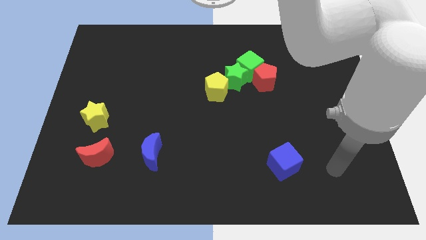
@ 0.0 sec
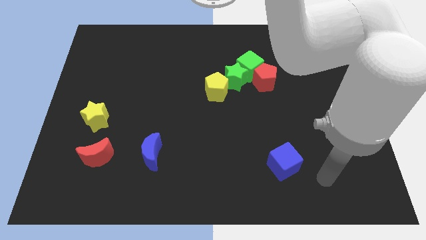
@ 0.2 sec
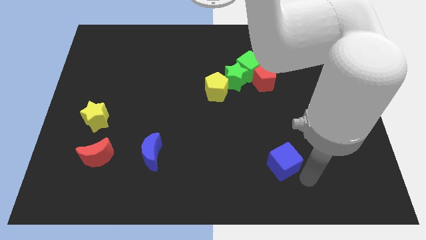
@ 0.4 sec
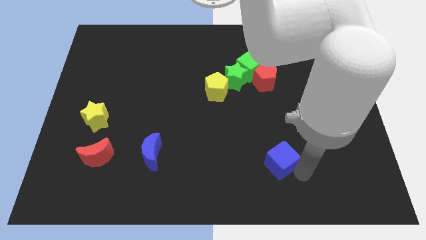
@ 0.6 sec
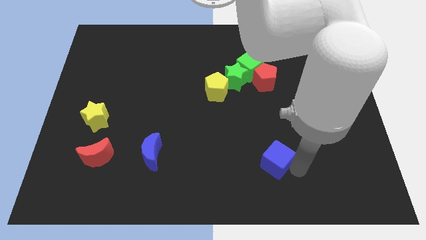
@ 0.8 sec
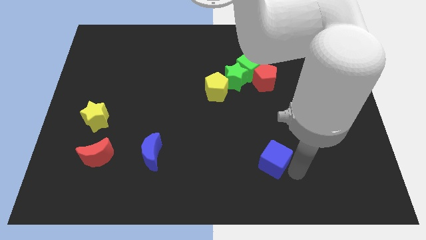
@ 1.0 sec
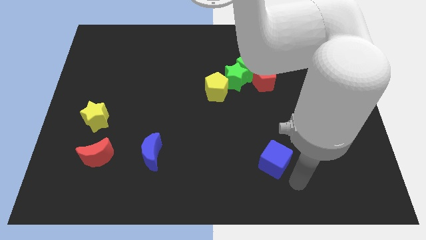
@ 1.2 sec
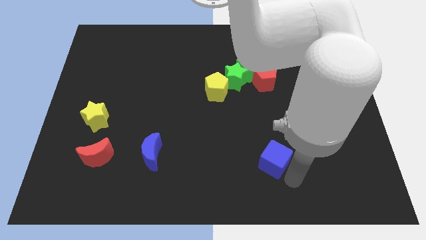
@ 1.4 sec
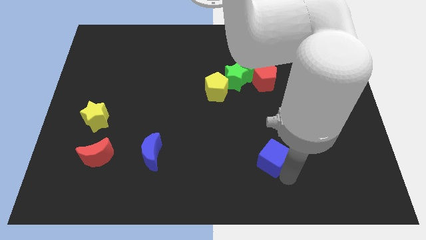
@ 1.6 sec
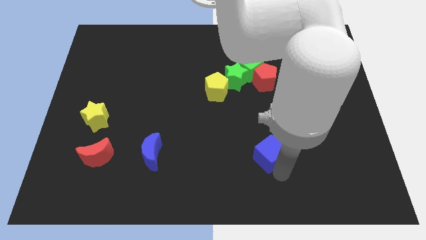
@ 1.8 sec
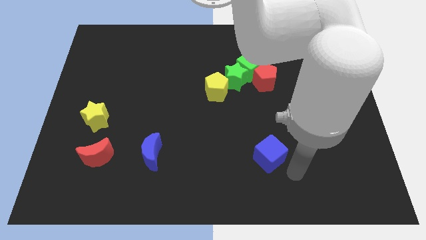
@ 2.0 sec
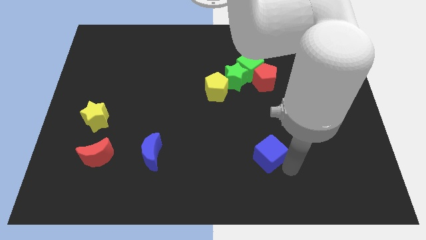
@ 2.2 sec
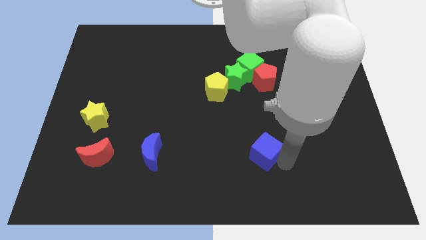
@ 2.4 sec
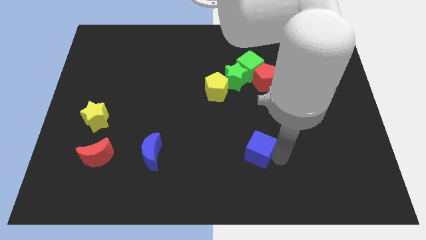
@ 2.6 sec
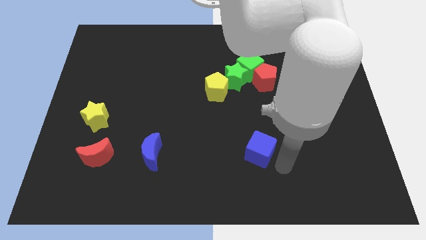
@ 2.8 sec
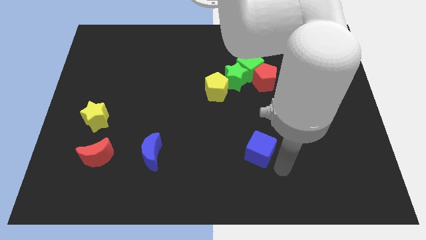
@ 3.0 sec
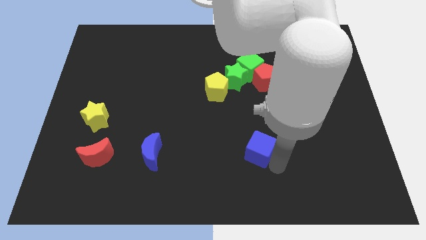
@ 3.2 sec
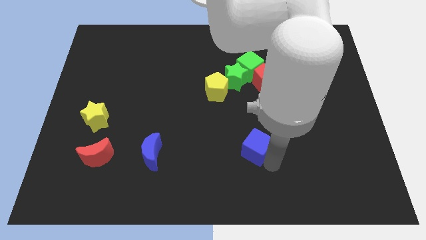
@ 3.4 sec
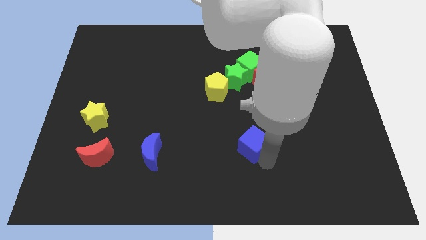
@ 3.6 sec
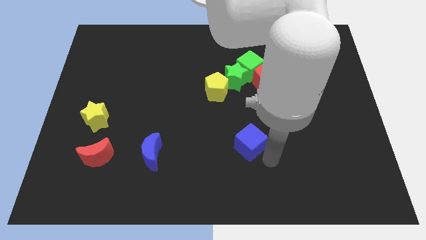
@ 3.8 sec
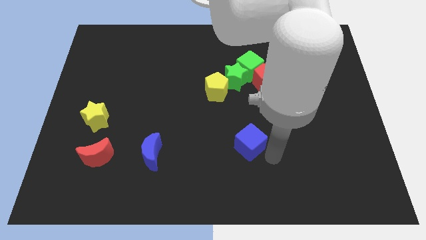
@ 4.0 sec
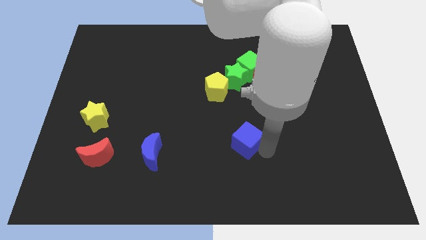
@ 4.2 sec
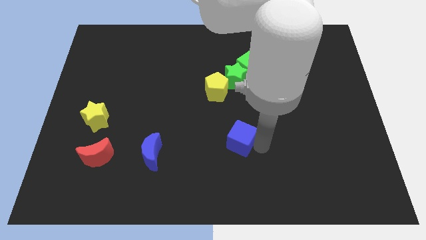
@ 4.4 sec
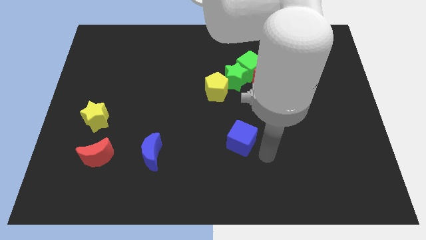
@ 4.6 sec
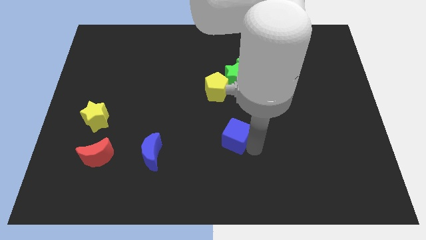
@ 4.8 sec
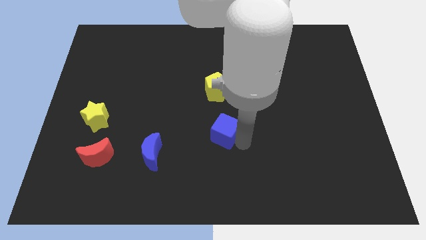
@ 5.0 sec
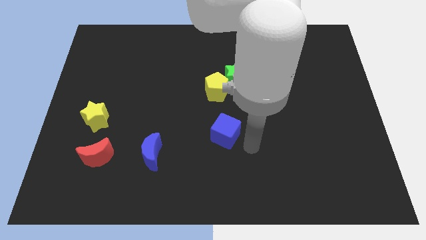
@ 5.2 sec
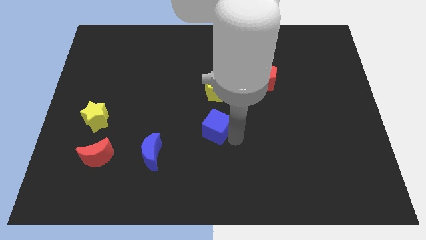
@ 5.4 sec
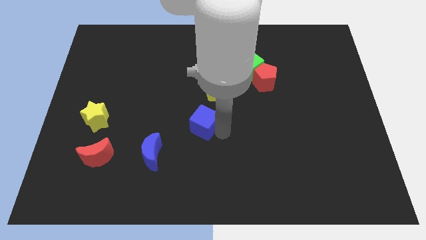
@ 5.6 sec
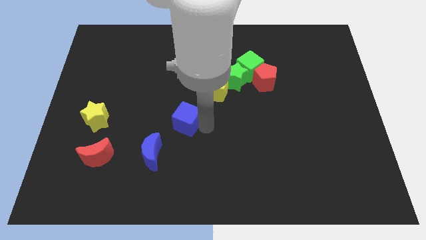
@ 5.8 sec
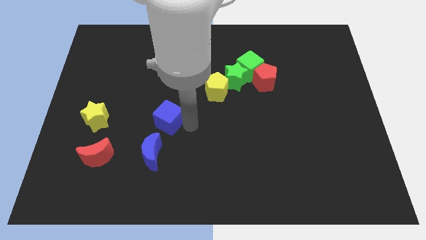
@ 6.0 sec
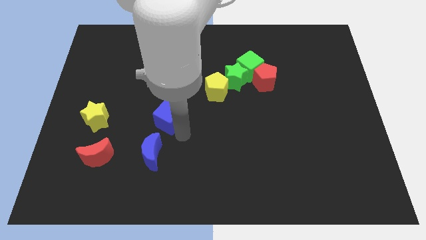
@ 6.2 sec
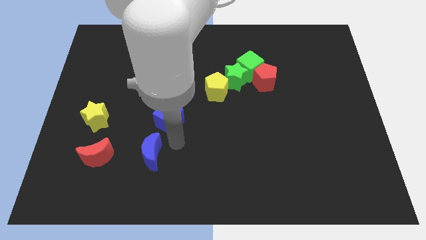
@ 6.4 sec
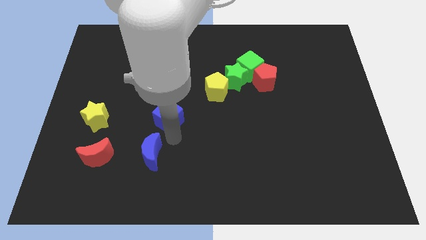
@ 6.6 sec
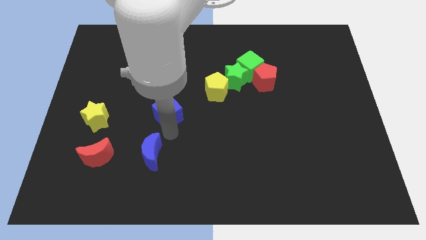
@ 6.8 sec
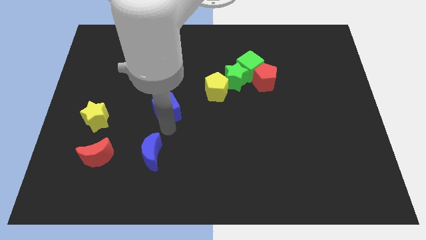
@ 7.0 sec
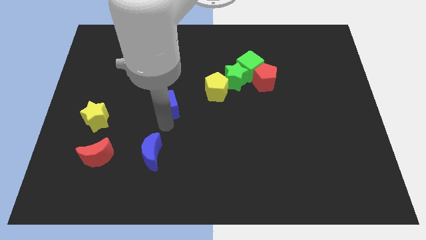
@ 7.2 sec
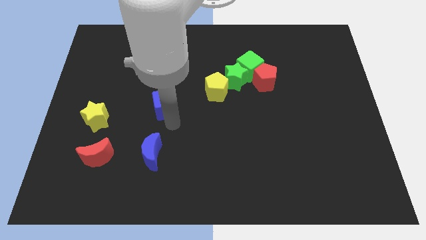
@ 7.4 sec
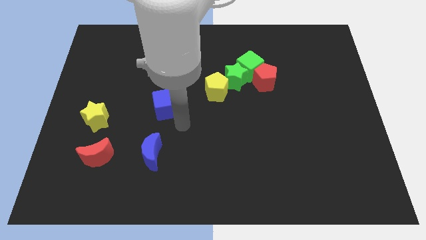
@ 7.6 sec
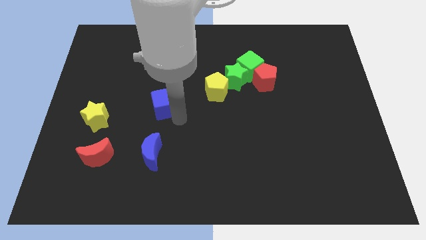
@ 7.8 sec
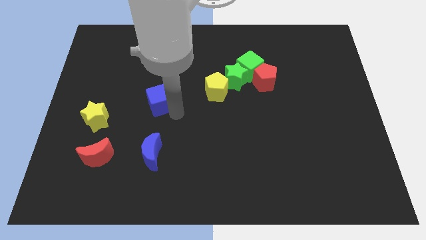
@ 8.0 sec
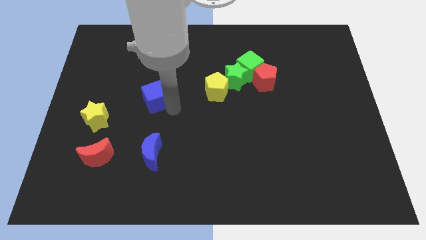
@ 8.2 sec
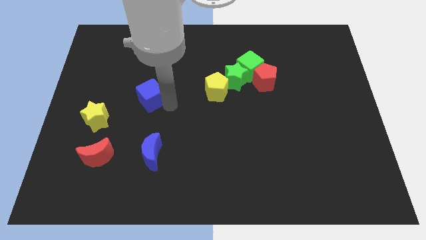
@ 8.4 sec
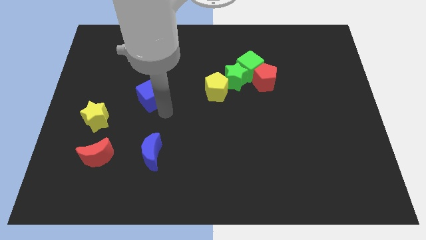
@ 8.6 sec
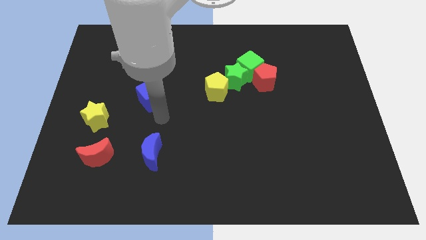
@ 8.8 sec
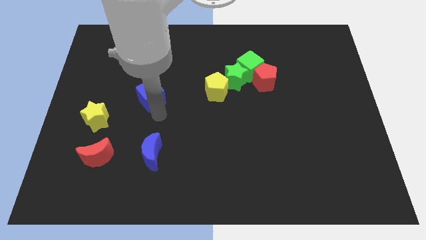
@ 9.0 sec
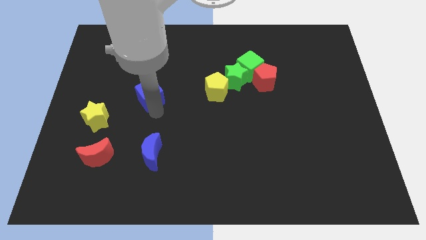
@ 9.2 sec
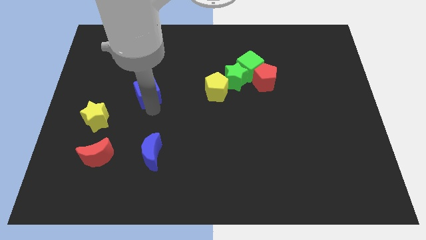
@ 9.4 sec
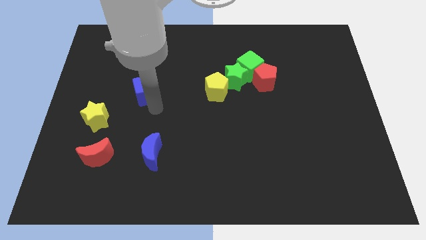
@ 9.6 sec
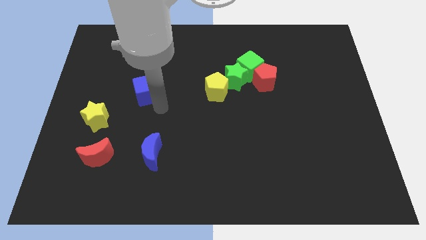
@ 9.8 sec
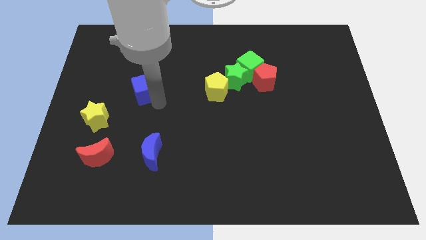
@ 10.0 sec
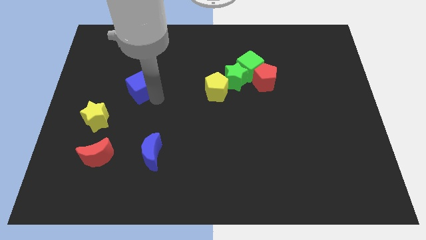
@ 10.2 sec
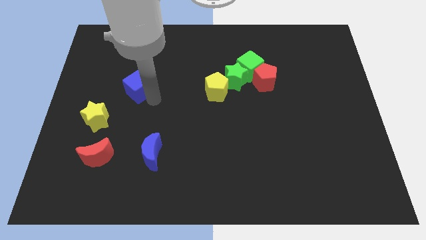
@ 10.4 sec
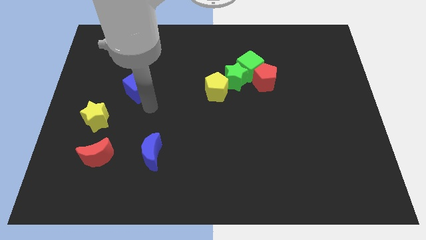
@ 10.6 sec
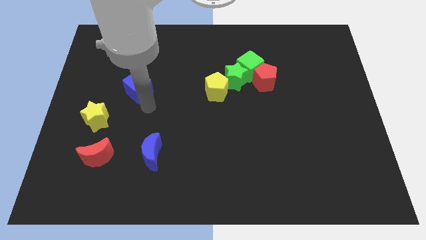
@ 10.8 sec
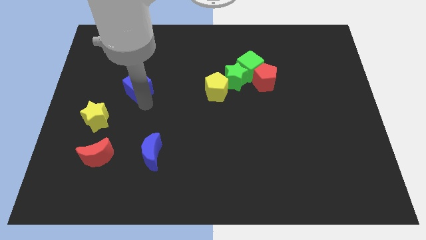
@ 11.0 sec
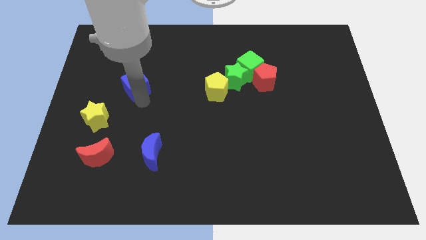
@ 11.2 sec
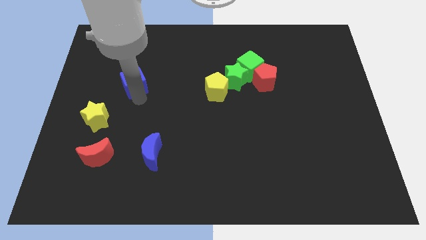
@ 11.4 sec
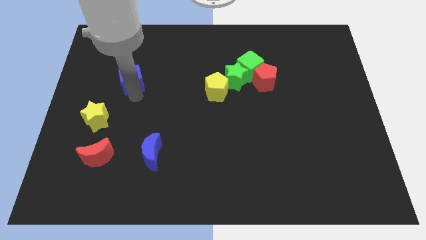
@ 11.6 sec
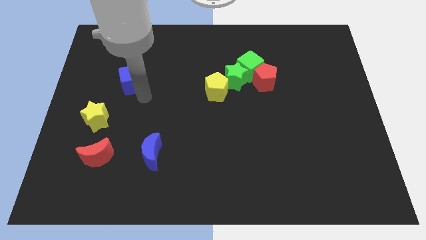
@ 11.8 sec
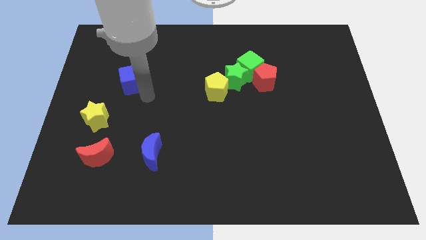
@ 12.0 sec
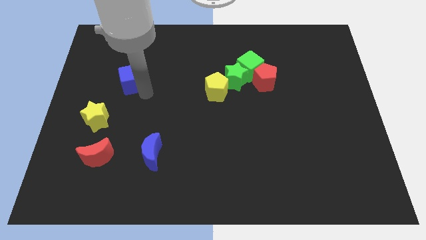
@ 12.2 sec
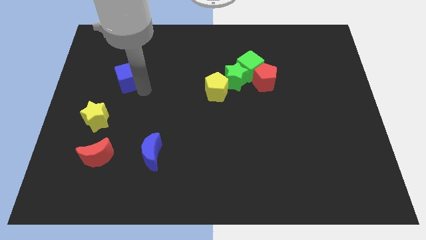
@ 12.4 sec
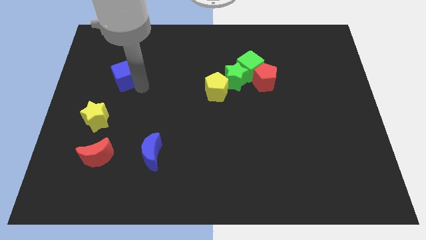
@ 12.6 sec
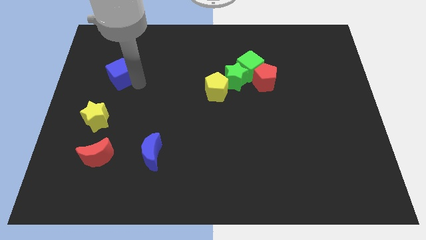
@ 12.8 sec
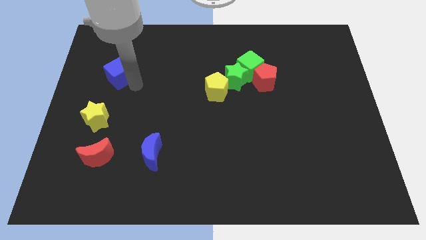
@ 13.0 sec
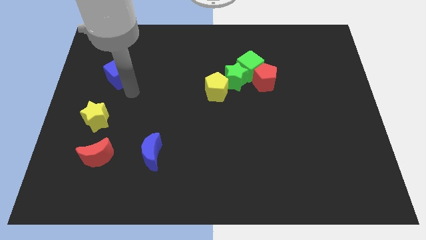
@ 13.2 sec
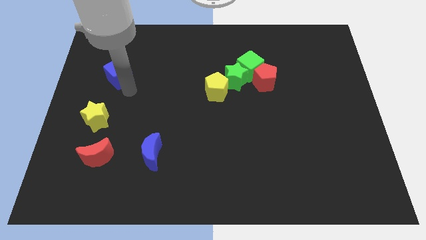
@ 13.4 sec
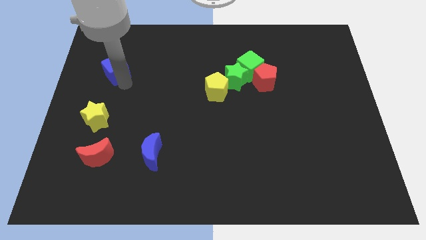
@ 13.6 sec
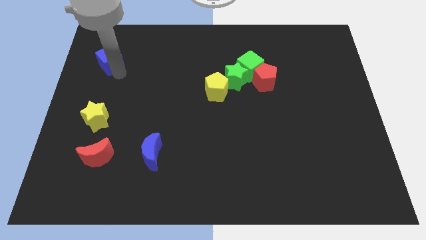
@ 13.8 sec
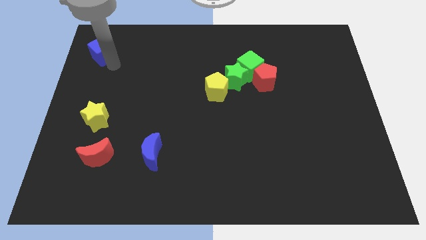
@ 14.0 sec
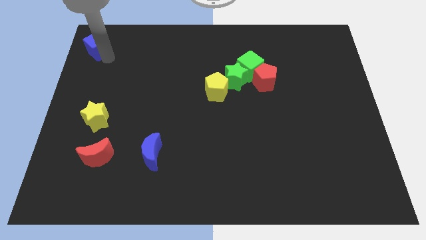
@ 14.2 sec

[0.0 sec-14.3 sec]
put the blue cube to the top left corner
